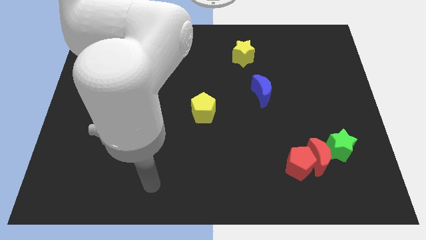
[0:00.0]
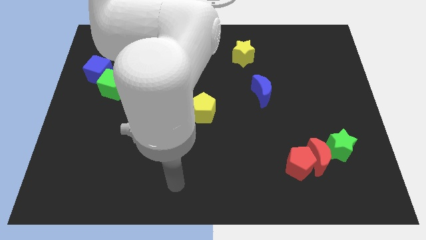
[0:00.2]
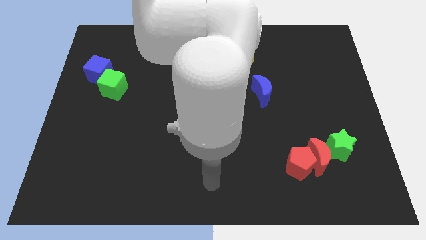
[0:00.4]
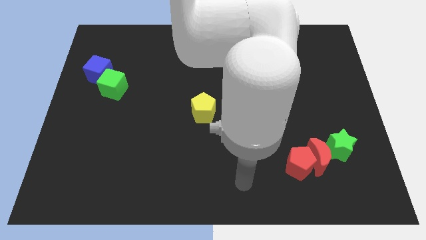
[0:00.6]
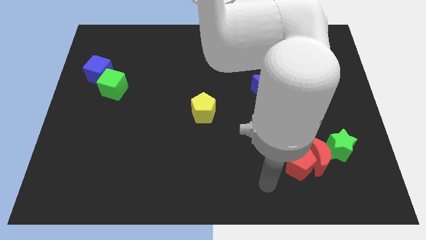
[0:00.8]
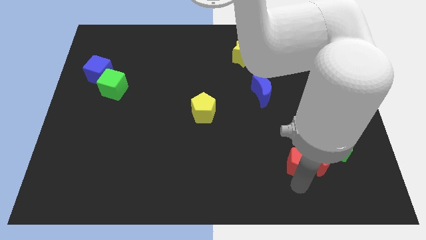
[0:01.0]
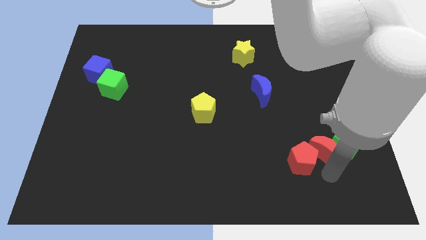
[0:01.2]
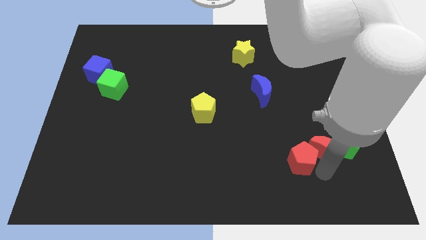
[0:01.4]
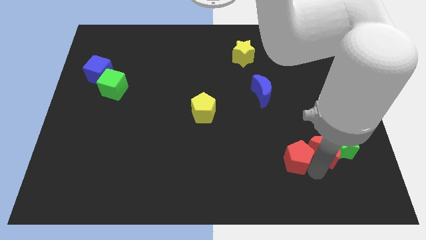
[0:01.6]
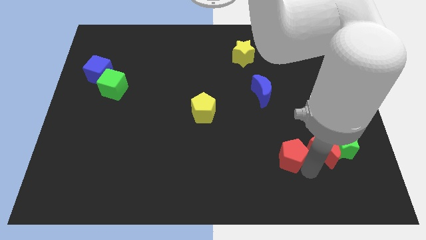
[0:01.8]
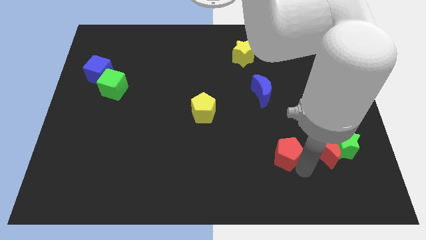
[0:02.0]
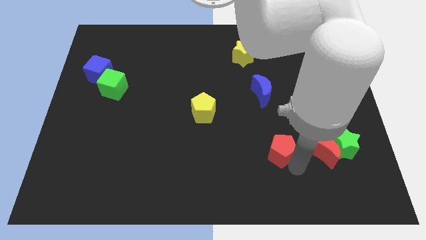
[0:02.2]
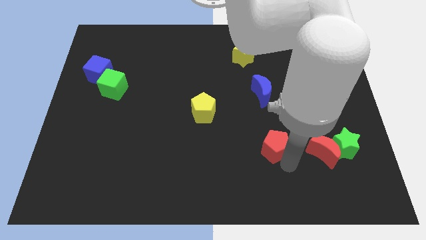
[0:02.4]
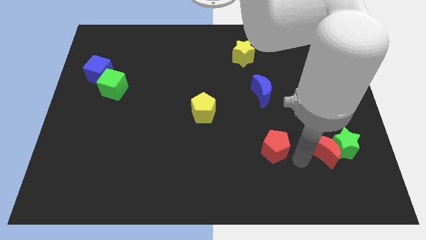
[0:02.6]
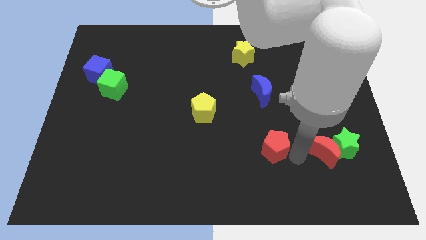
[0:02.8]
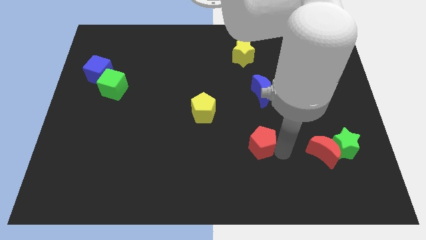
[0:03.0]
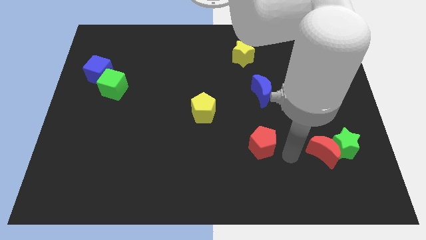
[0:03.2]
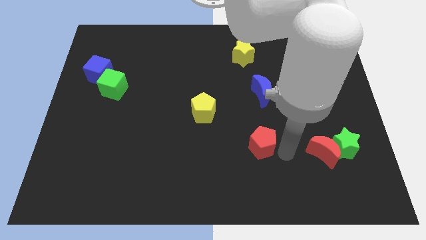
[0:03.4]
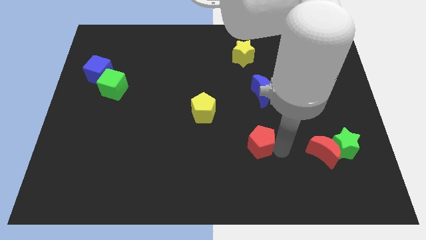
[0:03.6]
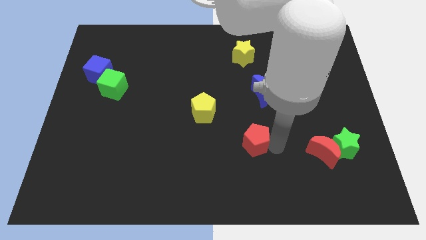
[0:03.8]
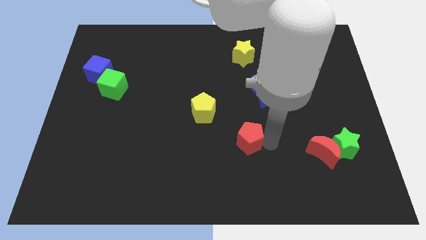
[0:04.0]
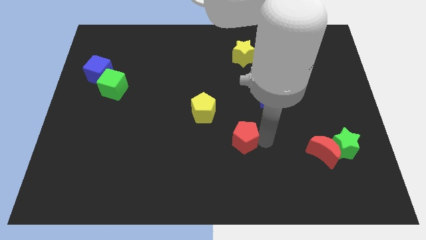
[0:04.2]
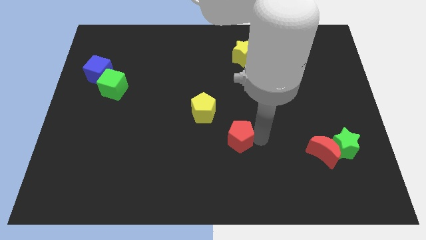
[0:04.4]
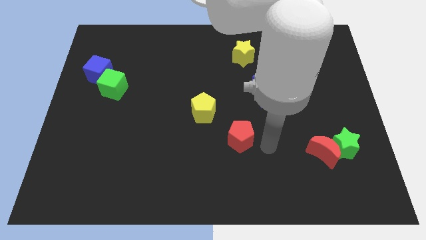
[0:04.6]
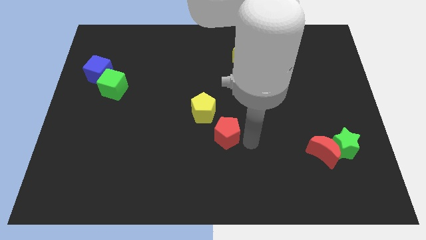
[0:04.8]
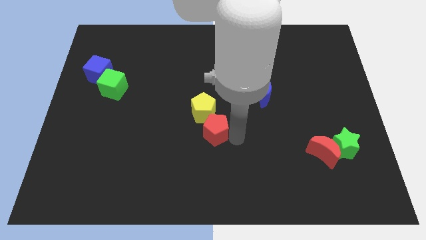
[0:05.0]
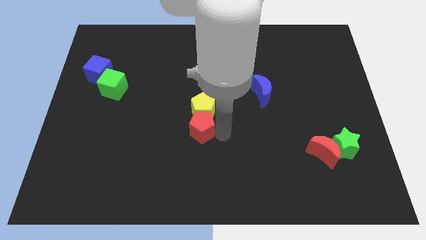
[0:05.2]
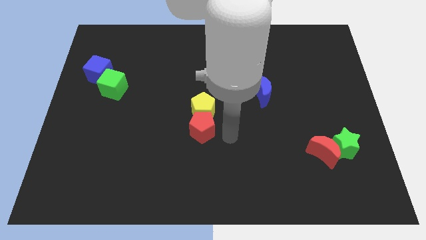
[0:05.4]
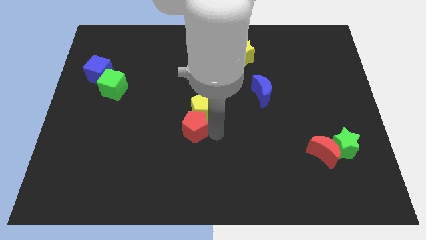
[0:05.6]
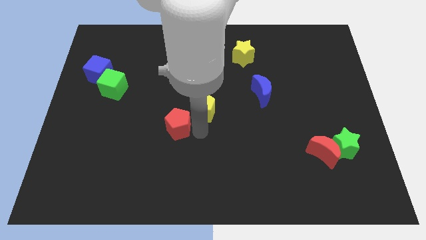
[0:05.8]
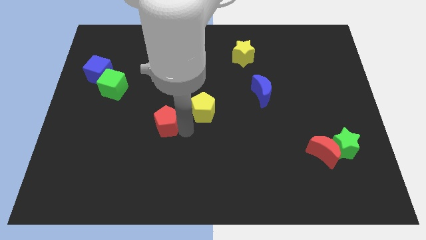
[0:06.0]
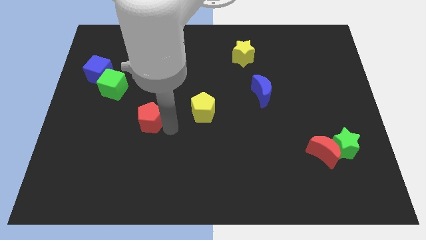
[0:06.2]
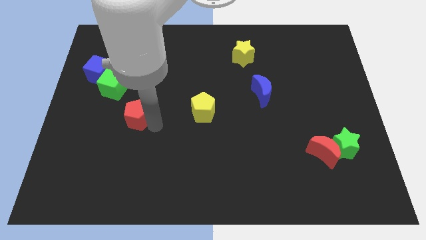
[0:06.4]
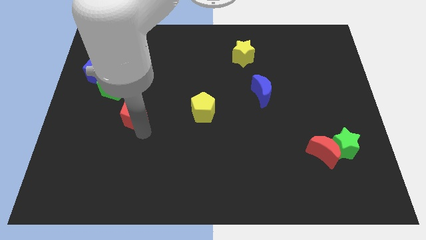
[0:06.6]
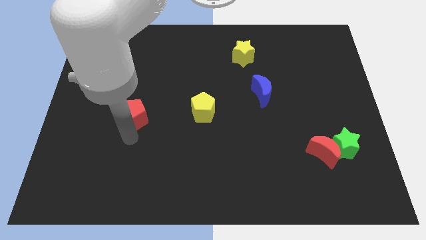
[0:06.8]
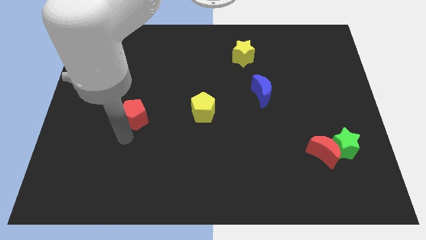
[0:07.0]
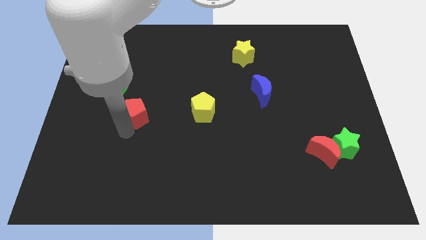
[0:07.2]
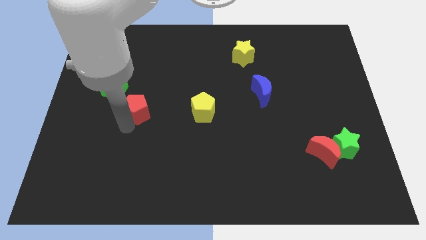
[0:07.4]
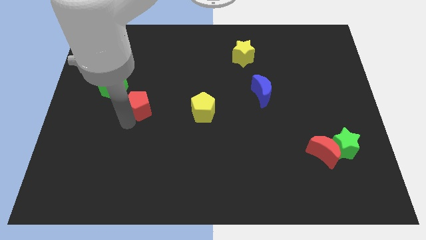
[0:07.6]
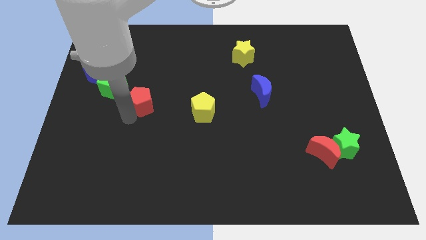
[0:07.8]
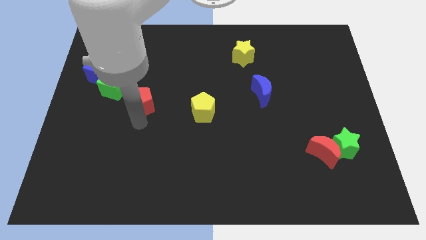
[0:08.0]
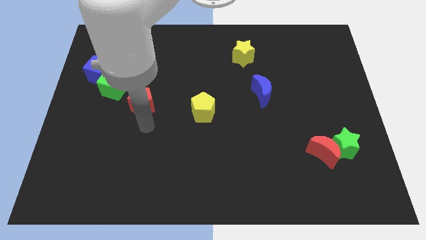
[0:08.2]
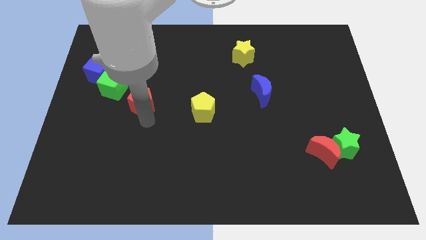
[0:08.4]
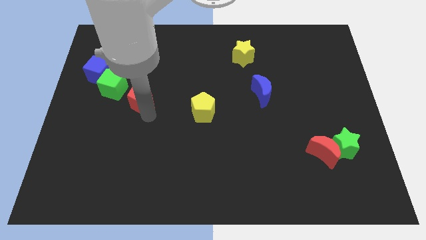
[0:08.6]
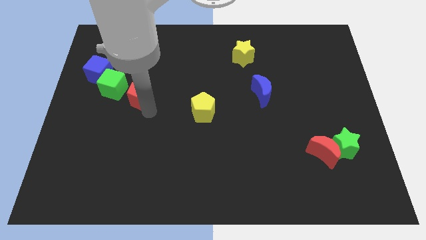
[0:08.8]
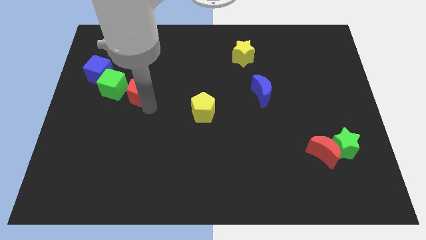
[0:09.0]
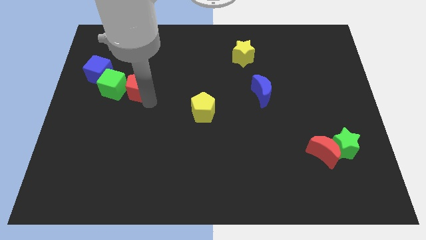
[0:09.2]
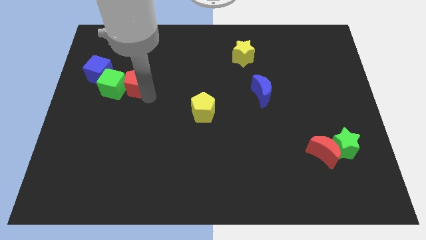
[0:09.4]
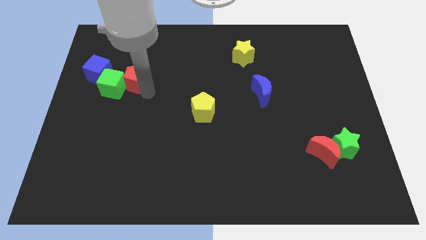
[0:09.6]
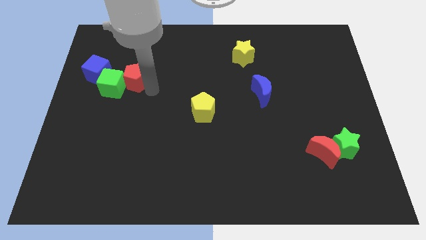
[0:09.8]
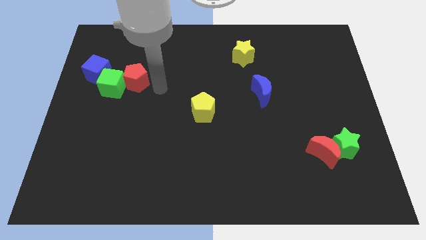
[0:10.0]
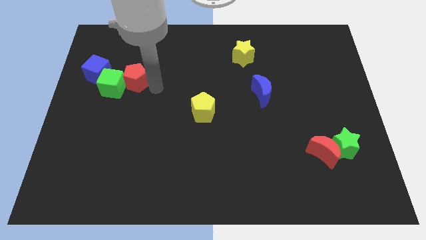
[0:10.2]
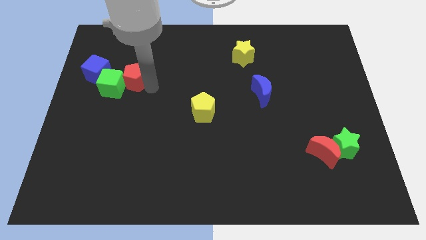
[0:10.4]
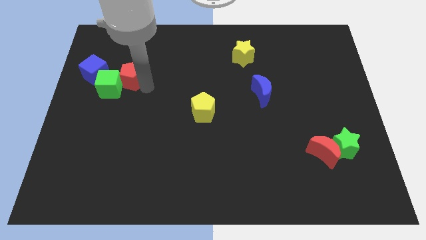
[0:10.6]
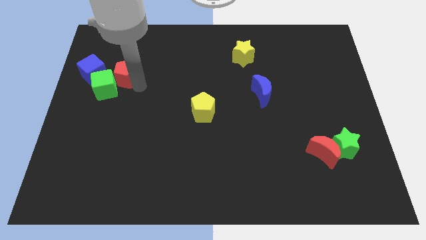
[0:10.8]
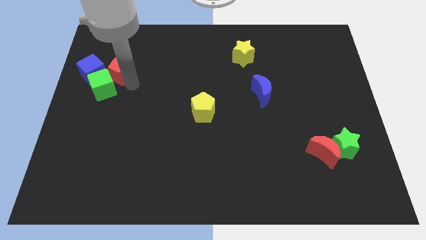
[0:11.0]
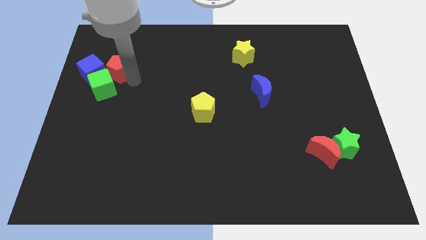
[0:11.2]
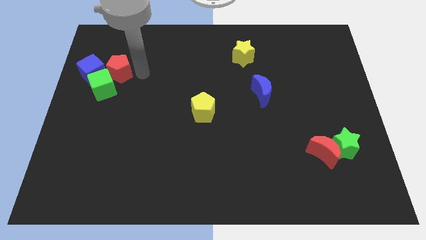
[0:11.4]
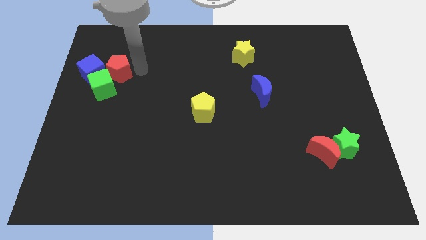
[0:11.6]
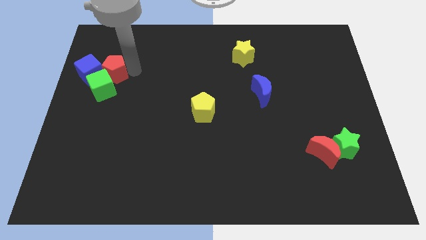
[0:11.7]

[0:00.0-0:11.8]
put the red pentagon to the blue cube
